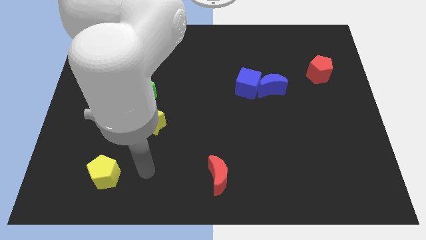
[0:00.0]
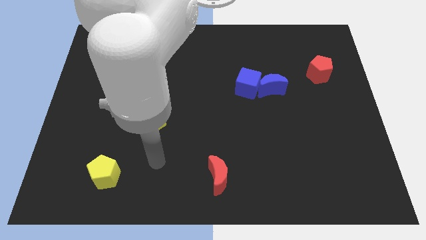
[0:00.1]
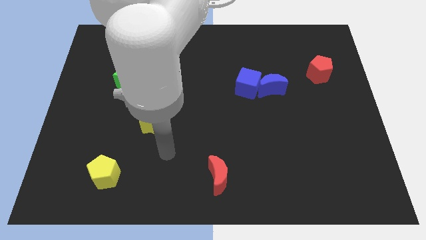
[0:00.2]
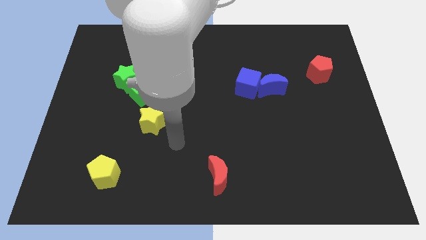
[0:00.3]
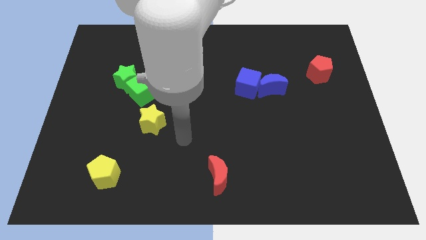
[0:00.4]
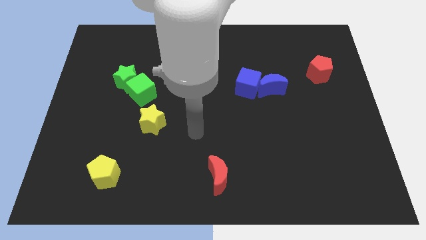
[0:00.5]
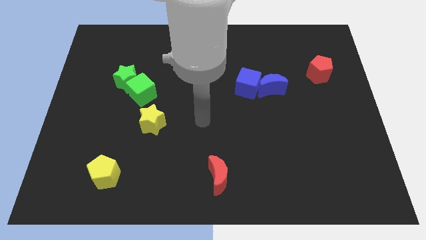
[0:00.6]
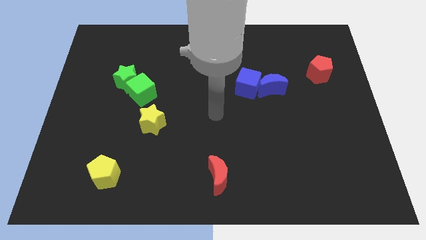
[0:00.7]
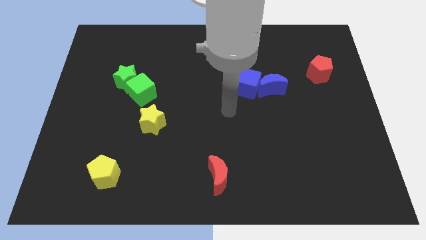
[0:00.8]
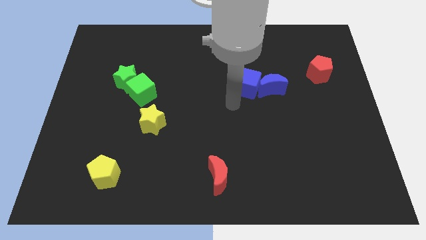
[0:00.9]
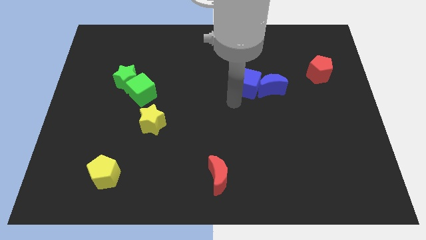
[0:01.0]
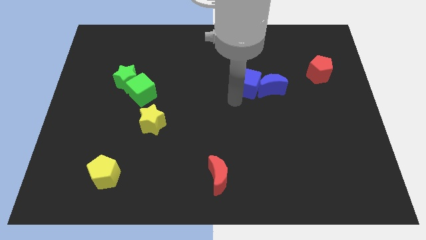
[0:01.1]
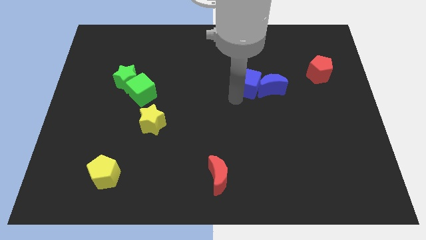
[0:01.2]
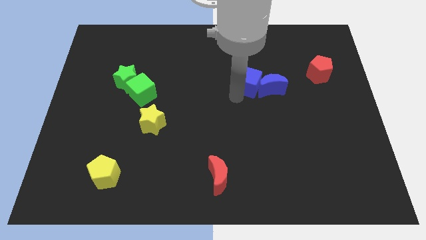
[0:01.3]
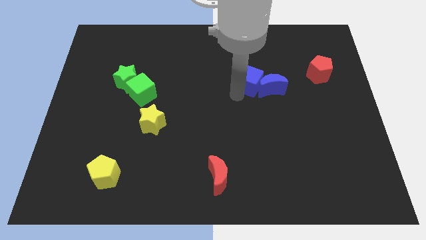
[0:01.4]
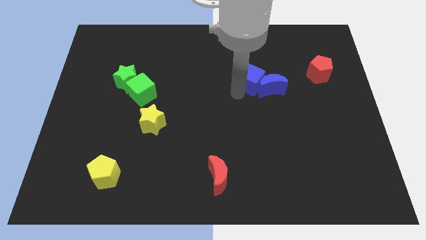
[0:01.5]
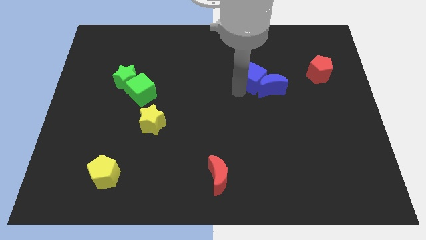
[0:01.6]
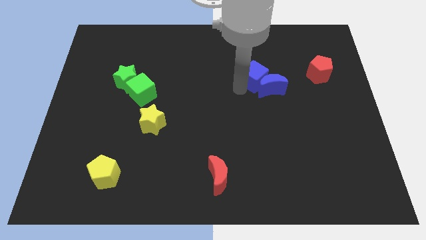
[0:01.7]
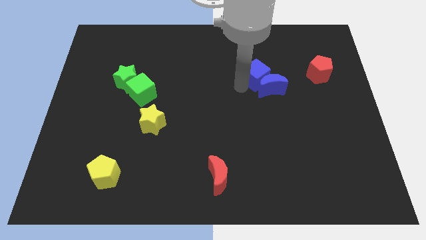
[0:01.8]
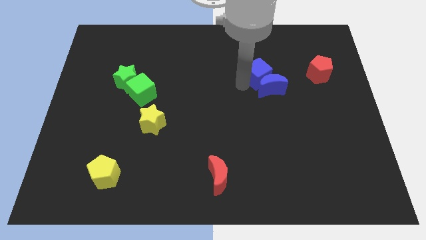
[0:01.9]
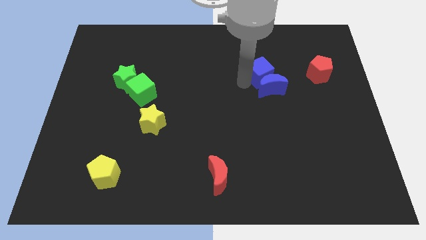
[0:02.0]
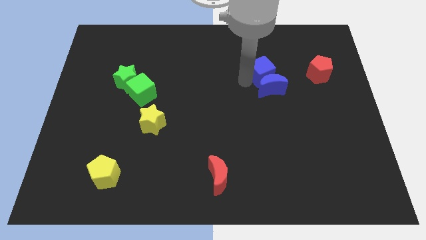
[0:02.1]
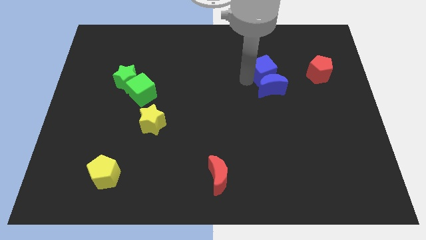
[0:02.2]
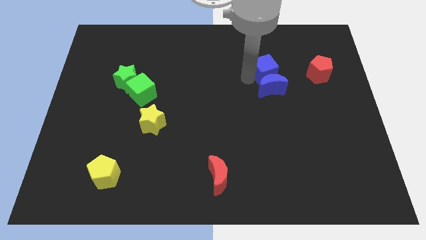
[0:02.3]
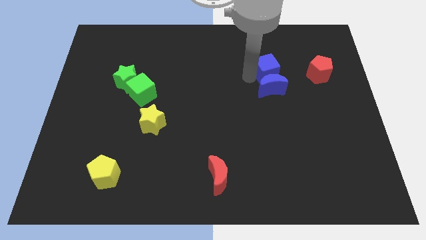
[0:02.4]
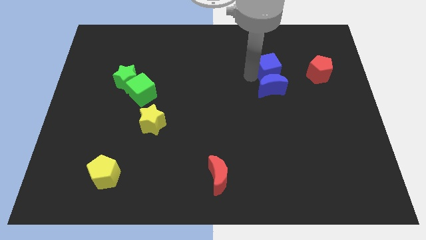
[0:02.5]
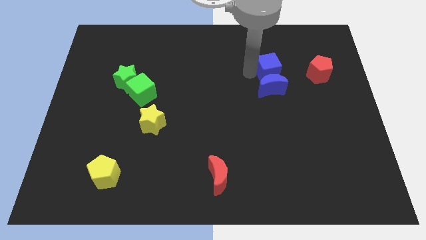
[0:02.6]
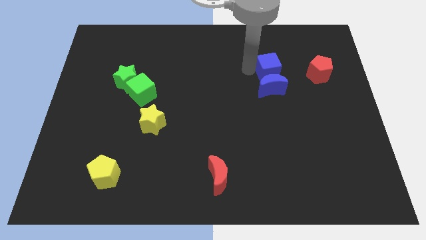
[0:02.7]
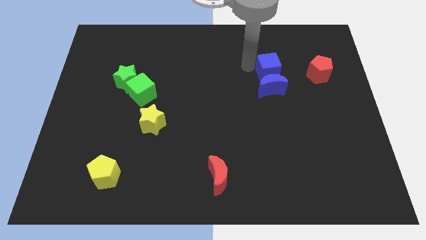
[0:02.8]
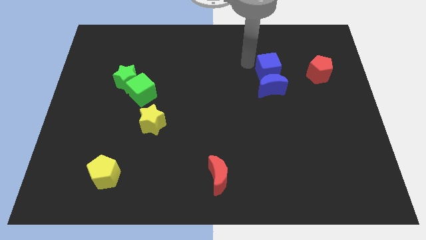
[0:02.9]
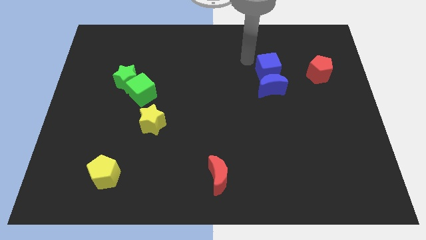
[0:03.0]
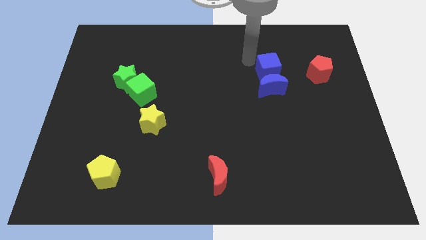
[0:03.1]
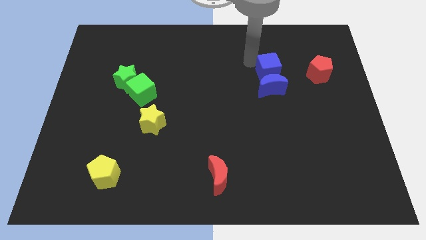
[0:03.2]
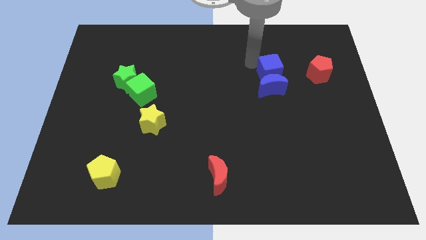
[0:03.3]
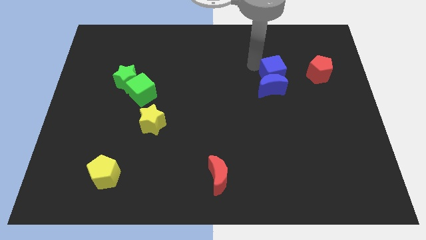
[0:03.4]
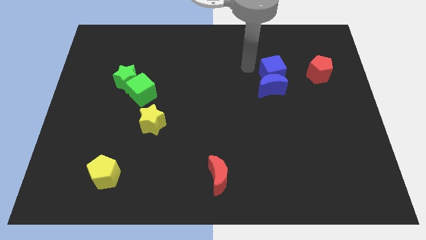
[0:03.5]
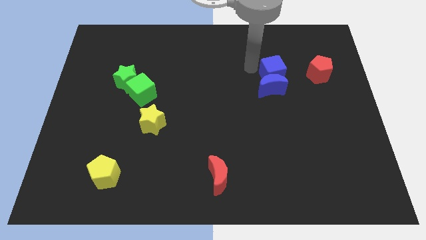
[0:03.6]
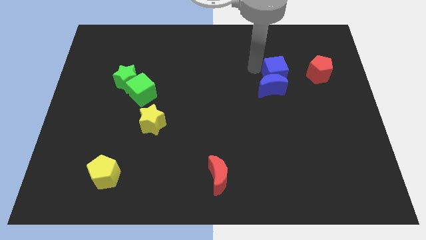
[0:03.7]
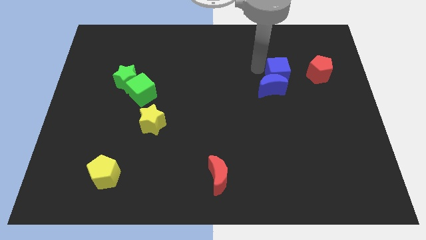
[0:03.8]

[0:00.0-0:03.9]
slide the blue cube right a little bit

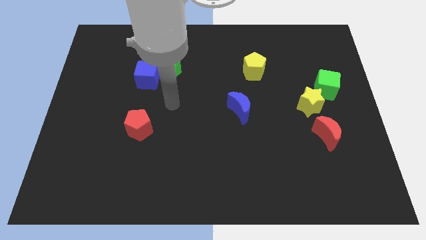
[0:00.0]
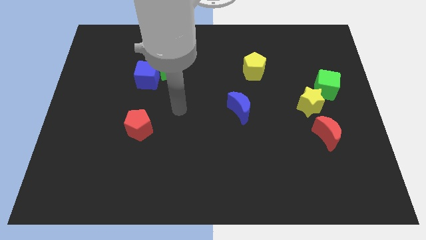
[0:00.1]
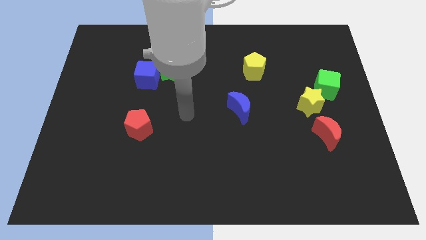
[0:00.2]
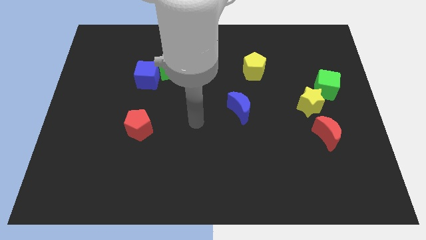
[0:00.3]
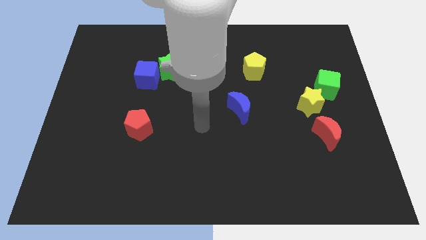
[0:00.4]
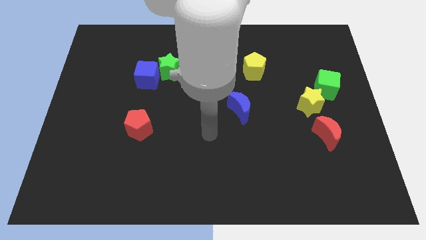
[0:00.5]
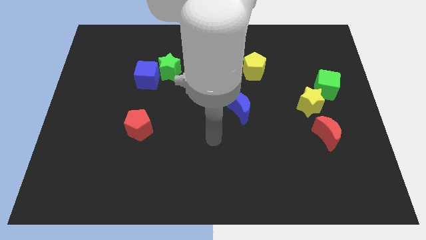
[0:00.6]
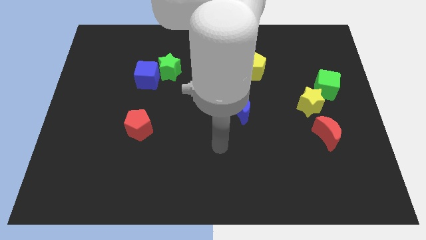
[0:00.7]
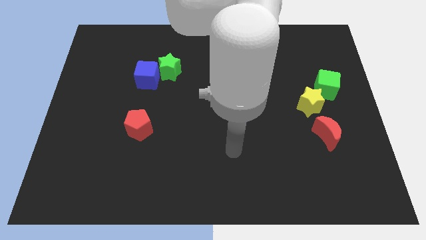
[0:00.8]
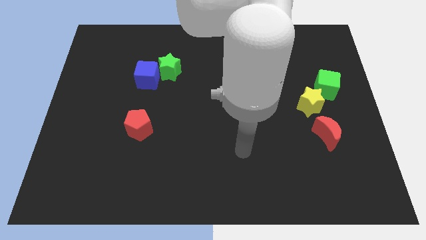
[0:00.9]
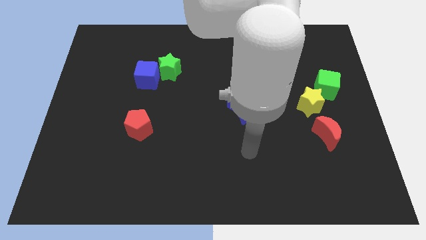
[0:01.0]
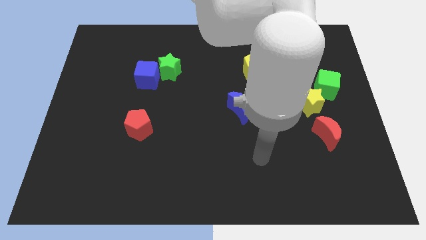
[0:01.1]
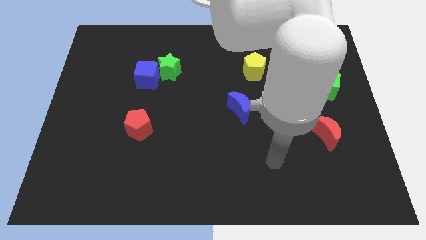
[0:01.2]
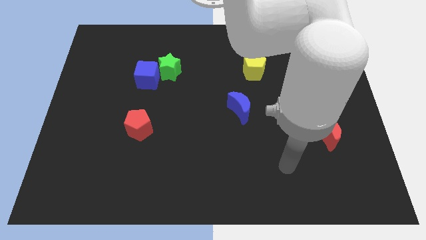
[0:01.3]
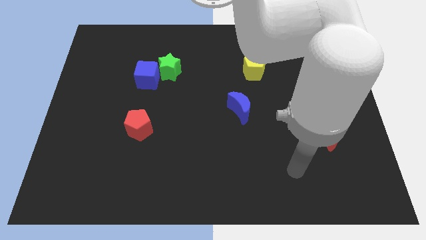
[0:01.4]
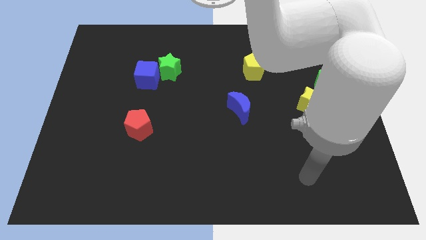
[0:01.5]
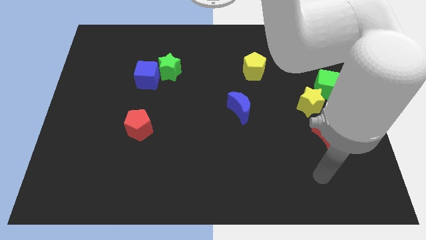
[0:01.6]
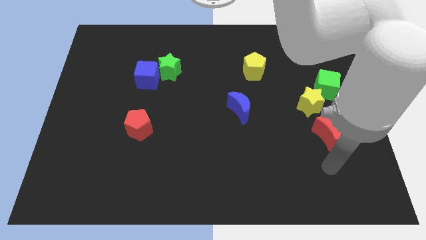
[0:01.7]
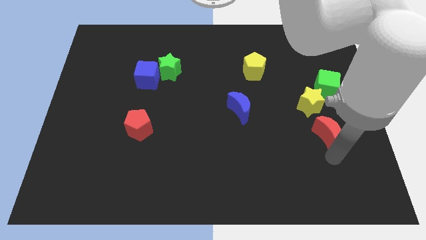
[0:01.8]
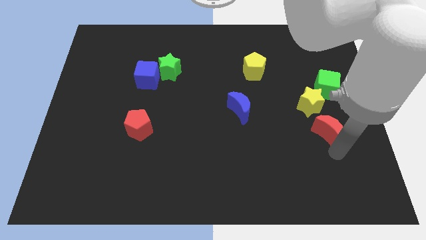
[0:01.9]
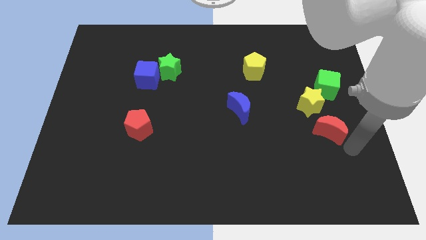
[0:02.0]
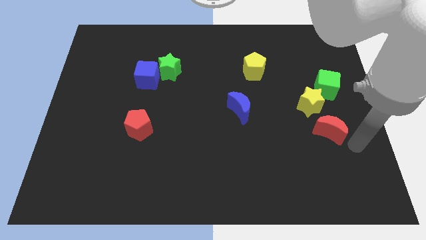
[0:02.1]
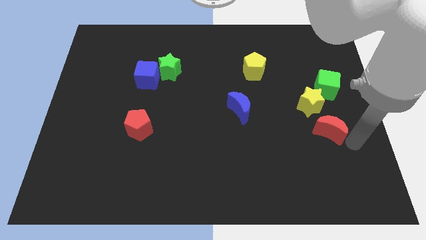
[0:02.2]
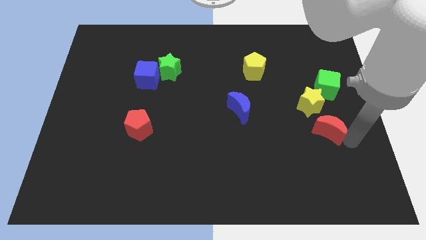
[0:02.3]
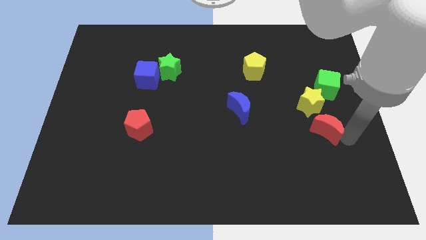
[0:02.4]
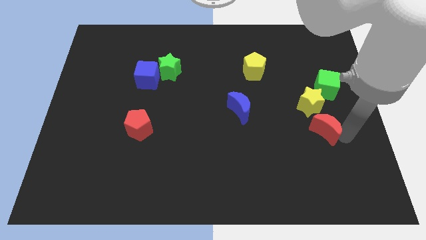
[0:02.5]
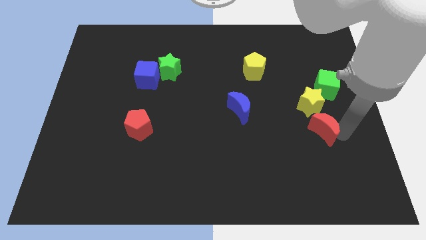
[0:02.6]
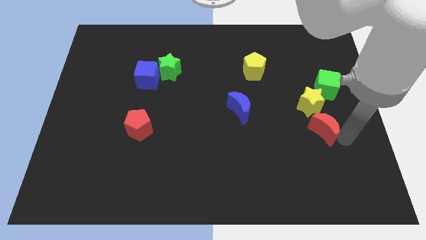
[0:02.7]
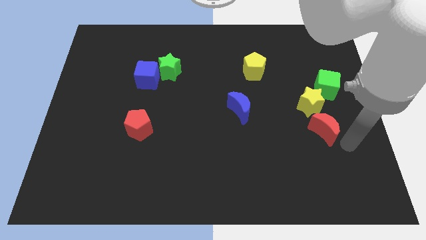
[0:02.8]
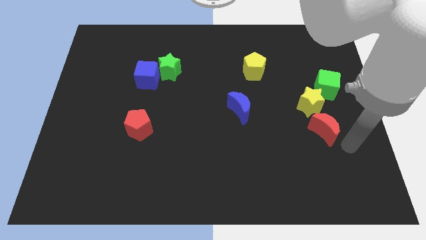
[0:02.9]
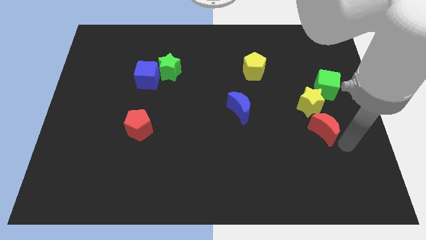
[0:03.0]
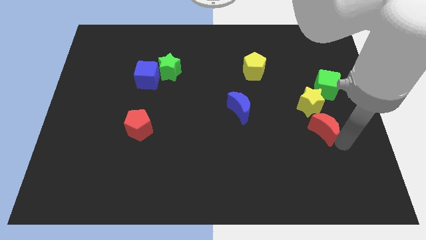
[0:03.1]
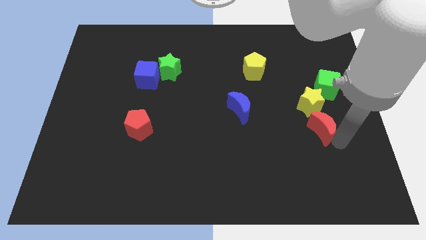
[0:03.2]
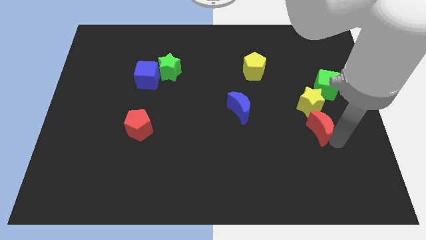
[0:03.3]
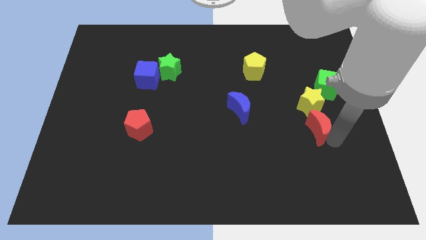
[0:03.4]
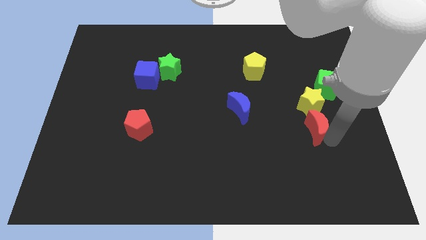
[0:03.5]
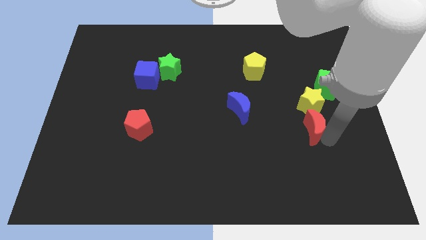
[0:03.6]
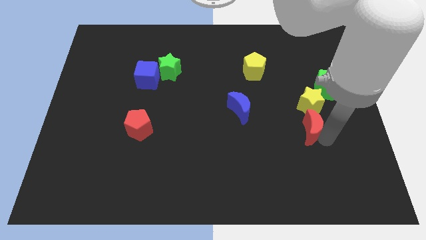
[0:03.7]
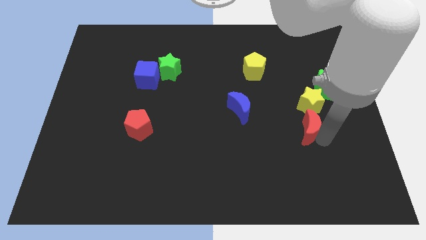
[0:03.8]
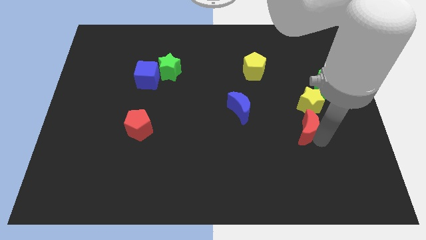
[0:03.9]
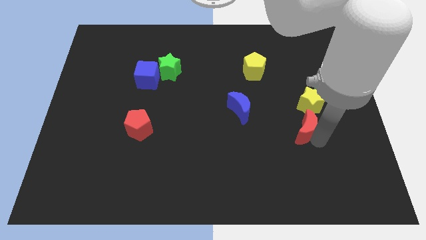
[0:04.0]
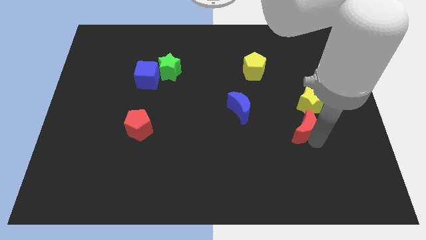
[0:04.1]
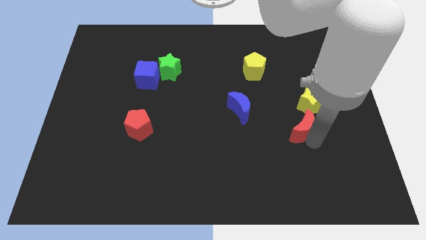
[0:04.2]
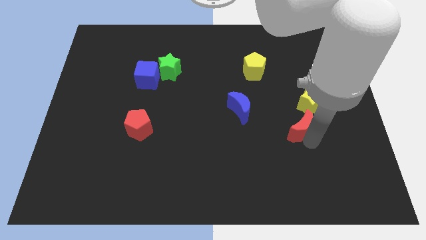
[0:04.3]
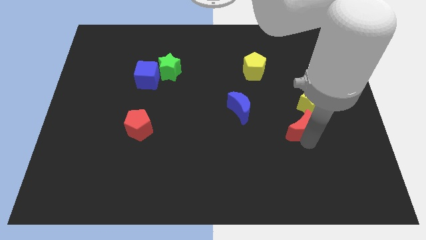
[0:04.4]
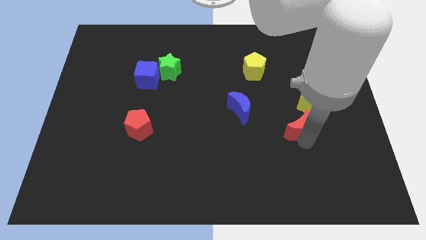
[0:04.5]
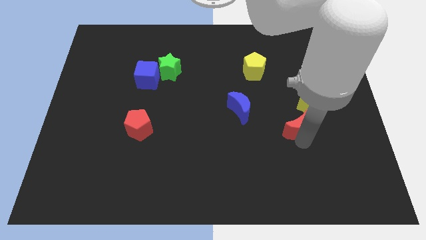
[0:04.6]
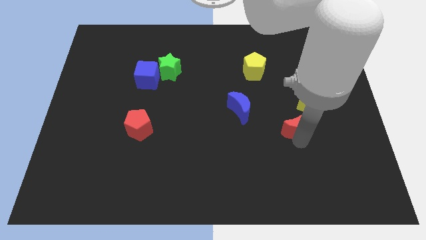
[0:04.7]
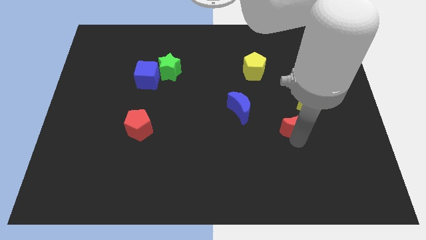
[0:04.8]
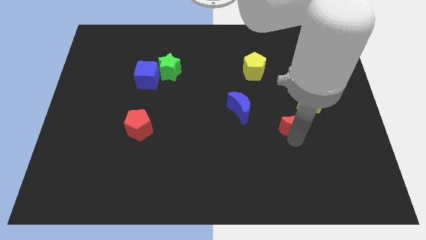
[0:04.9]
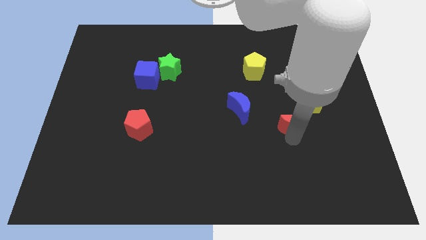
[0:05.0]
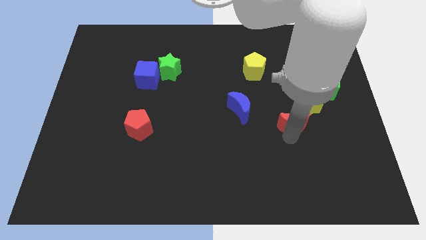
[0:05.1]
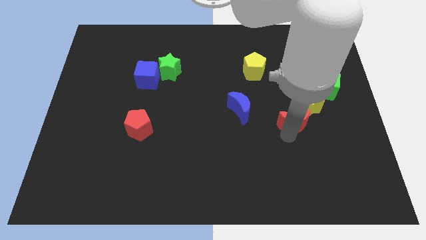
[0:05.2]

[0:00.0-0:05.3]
slide the red moon somewhat up and then left
